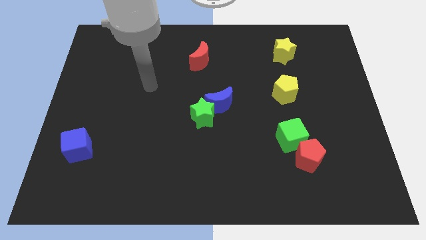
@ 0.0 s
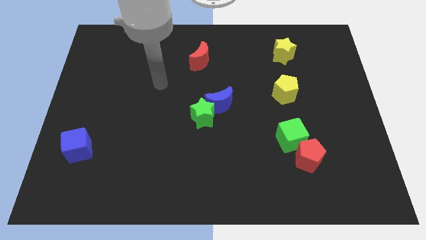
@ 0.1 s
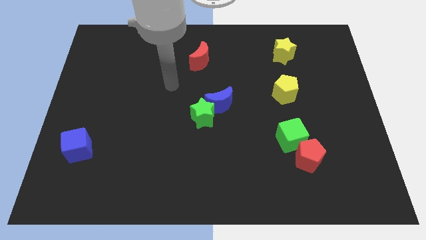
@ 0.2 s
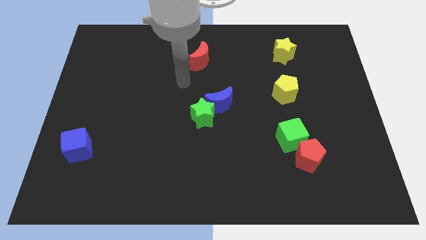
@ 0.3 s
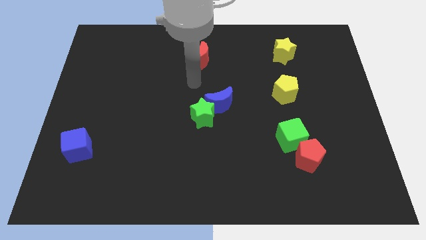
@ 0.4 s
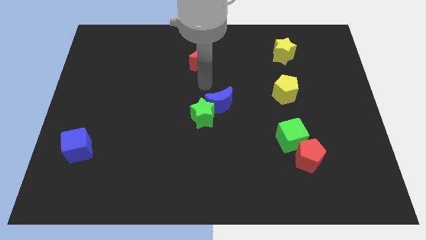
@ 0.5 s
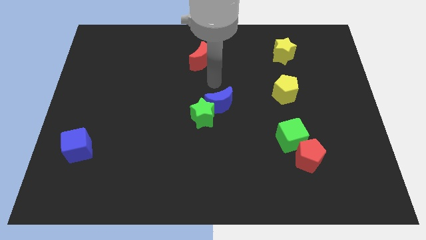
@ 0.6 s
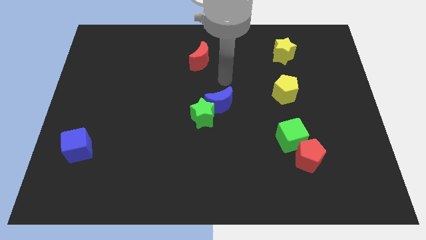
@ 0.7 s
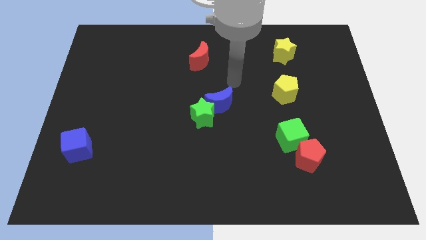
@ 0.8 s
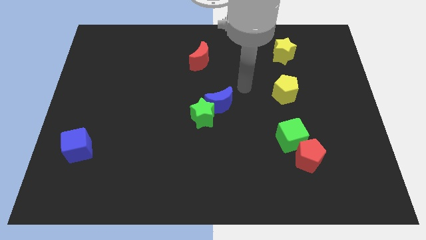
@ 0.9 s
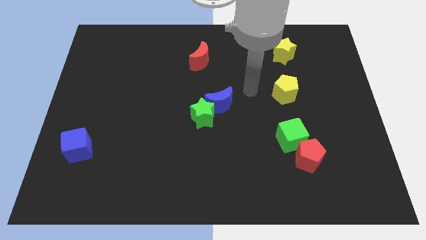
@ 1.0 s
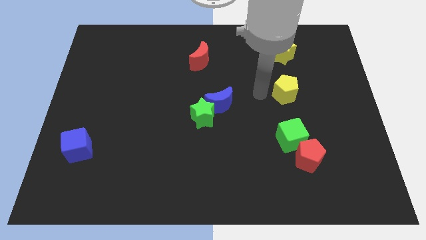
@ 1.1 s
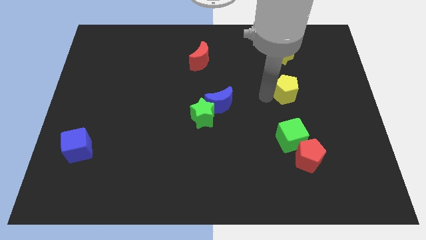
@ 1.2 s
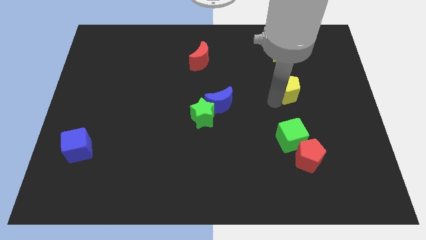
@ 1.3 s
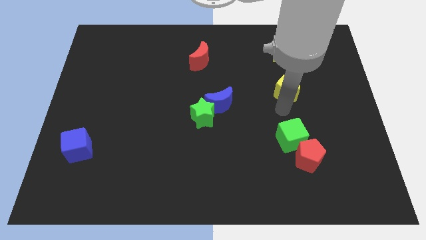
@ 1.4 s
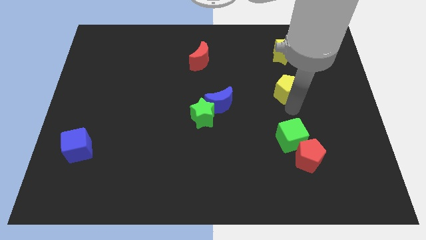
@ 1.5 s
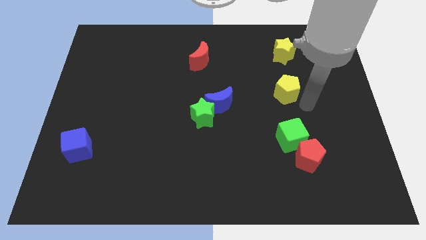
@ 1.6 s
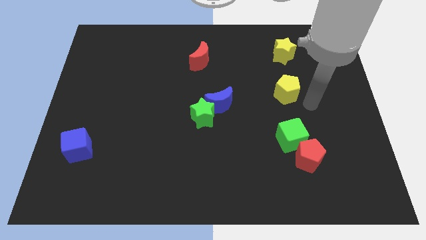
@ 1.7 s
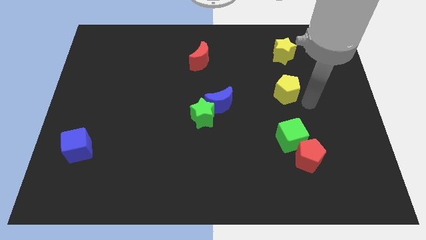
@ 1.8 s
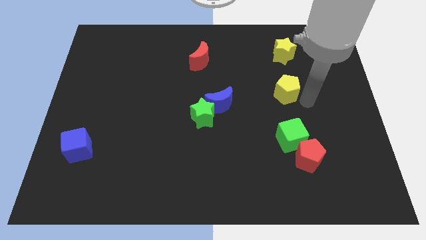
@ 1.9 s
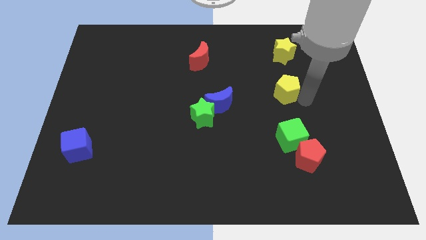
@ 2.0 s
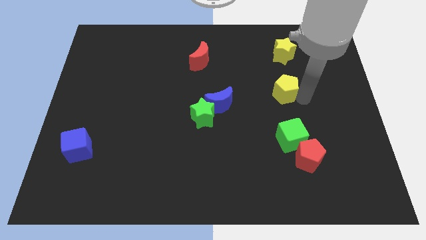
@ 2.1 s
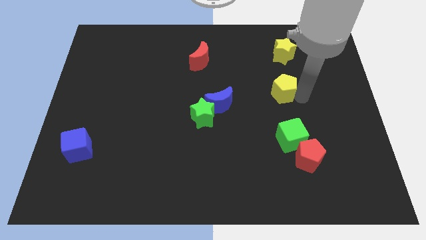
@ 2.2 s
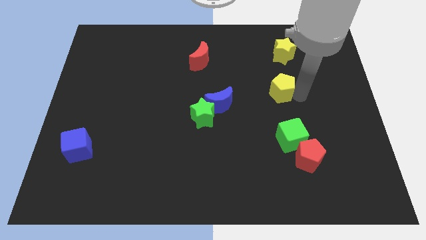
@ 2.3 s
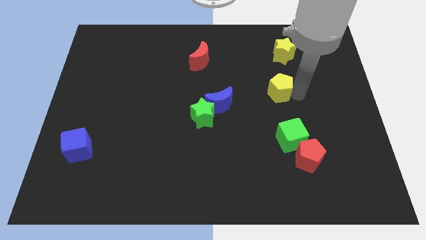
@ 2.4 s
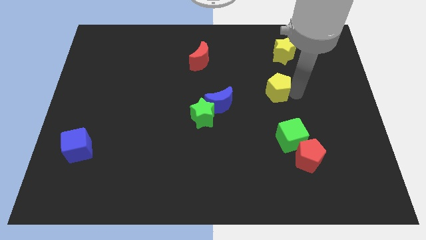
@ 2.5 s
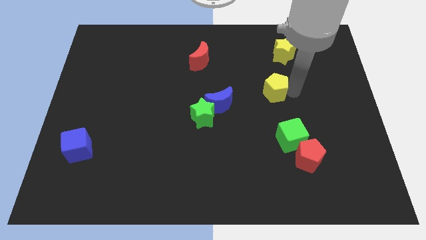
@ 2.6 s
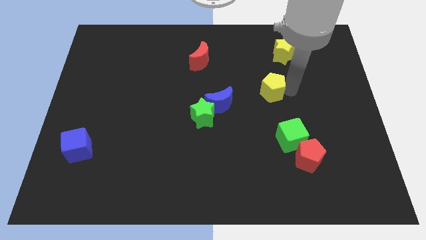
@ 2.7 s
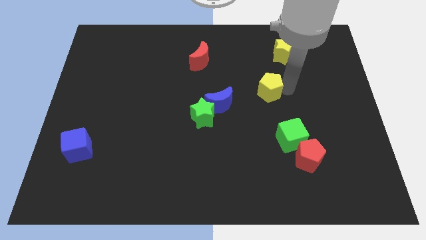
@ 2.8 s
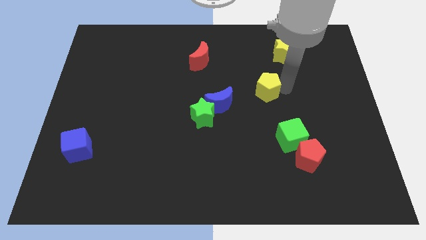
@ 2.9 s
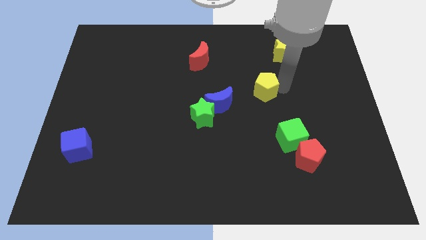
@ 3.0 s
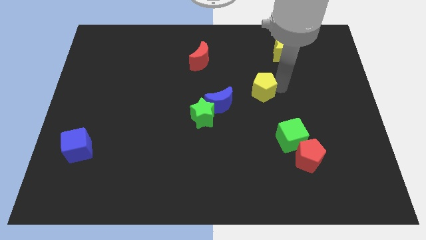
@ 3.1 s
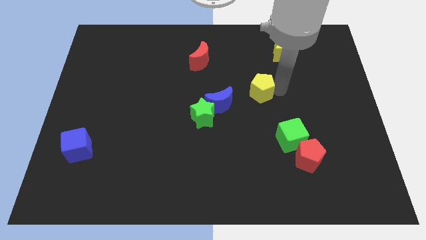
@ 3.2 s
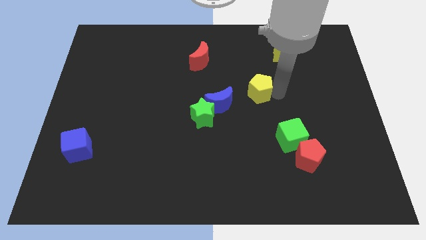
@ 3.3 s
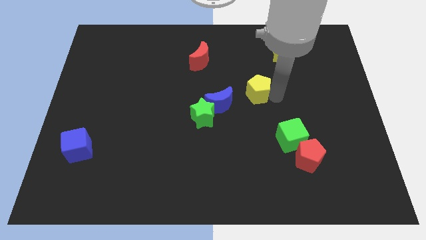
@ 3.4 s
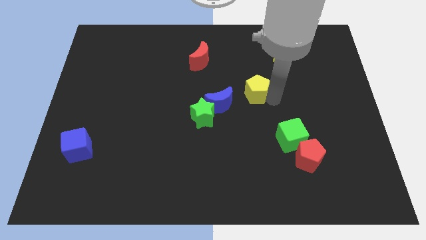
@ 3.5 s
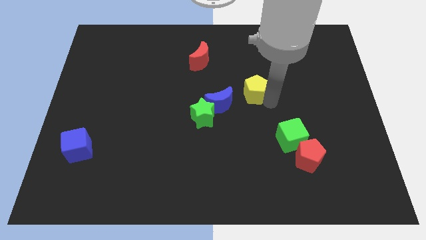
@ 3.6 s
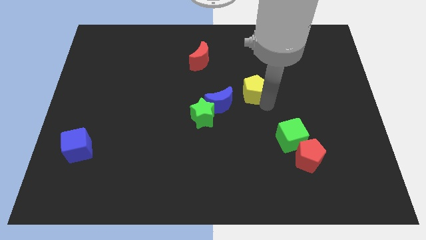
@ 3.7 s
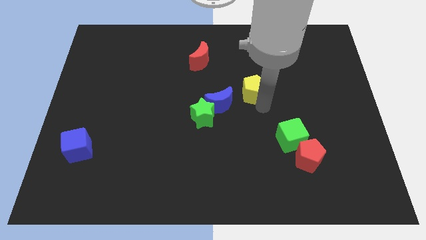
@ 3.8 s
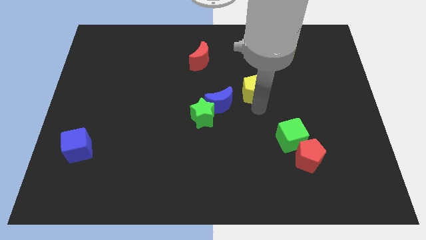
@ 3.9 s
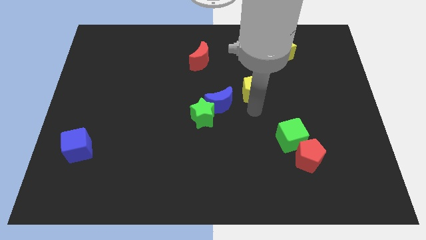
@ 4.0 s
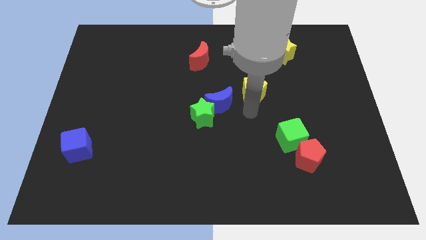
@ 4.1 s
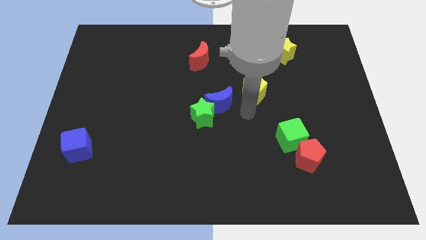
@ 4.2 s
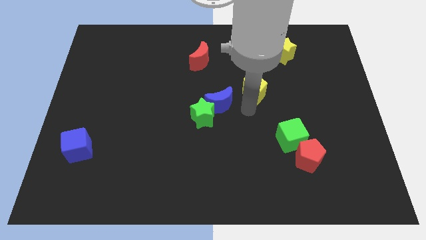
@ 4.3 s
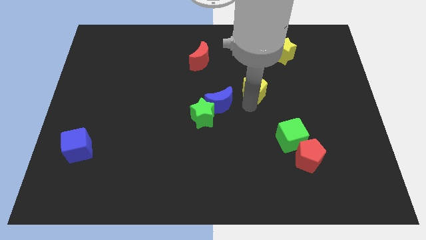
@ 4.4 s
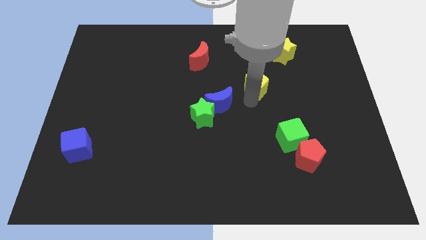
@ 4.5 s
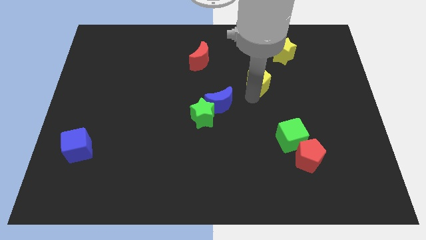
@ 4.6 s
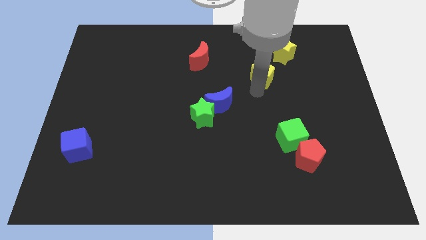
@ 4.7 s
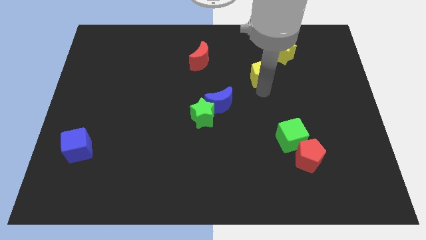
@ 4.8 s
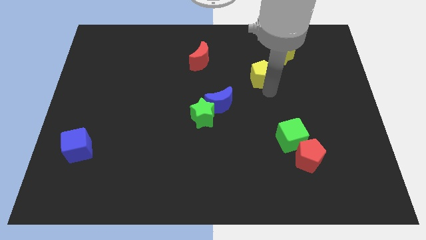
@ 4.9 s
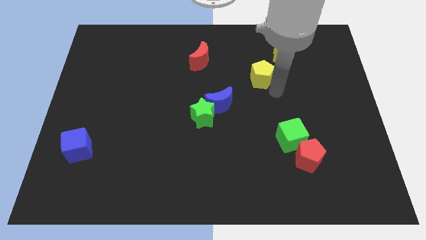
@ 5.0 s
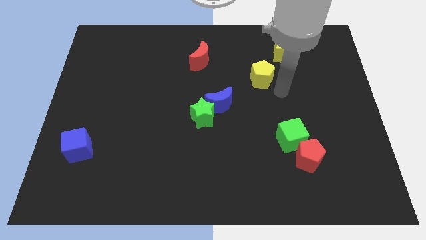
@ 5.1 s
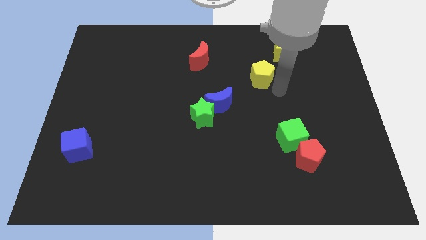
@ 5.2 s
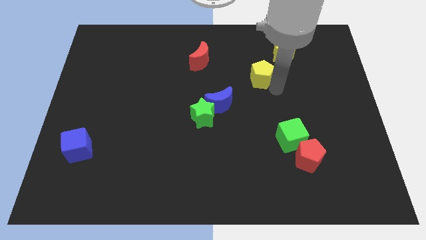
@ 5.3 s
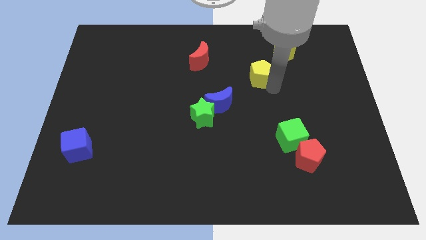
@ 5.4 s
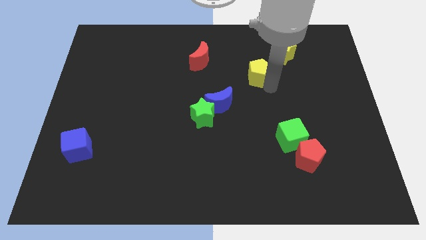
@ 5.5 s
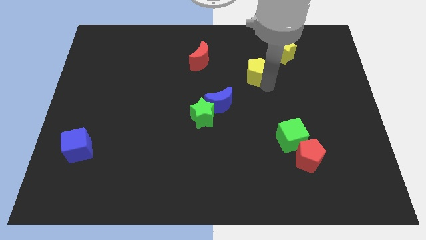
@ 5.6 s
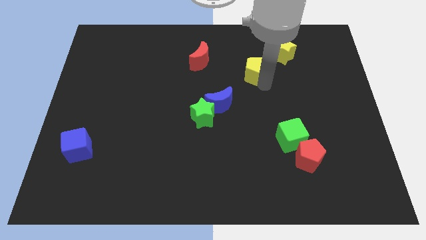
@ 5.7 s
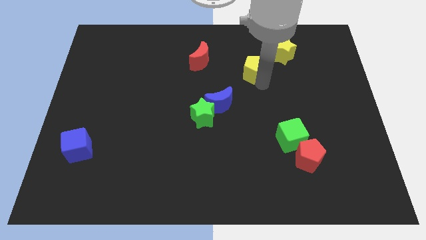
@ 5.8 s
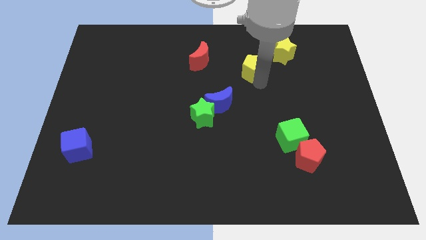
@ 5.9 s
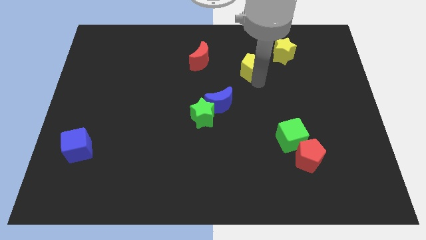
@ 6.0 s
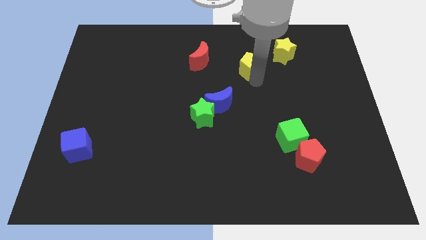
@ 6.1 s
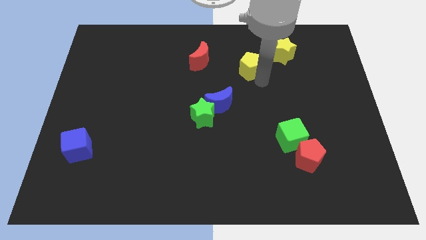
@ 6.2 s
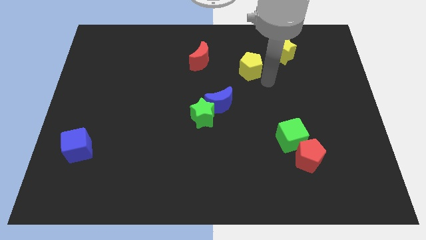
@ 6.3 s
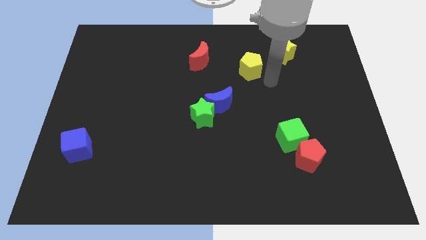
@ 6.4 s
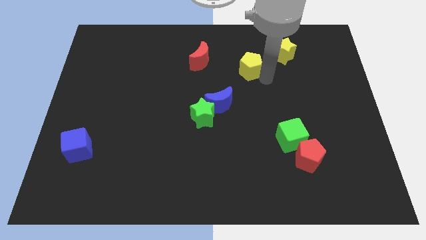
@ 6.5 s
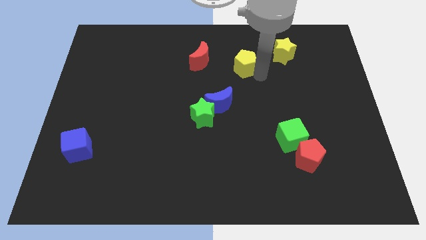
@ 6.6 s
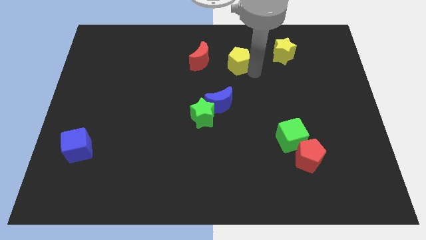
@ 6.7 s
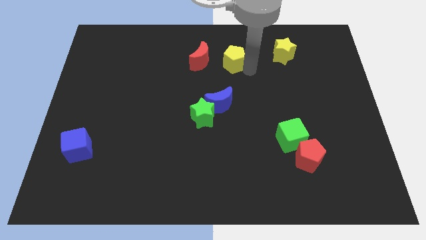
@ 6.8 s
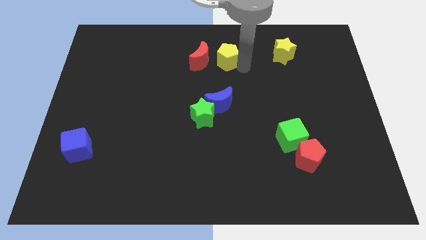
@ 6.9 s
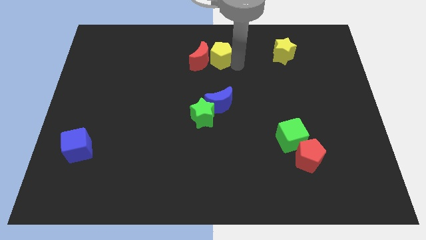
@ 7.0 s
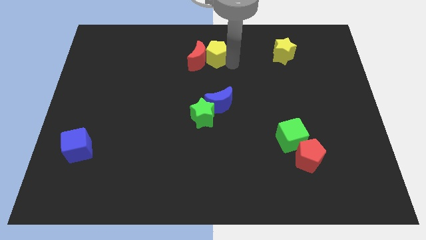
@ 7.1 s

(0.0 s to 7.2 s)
move the yellow pentagon to the towards your base
